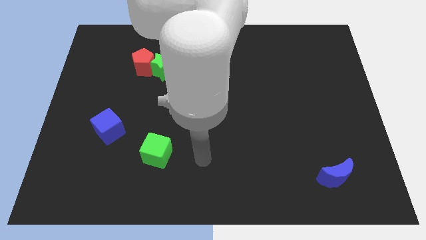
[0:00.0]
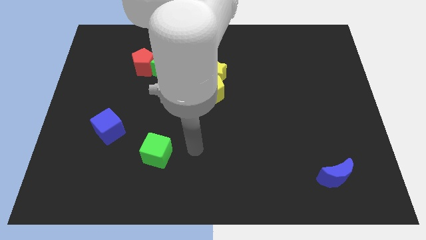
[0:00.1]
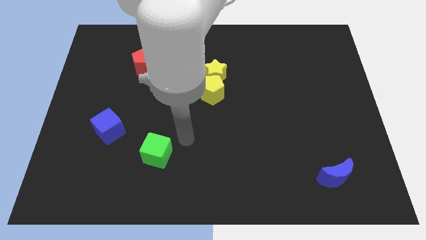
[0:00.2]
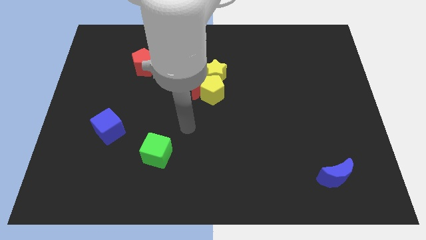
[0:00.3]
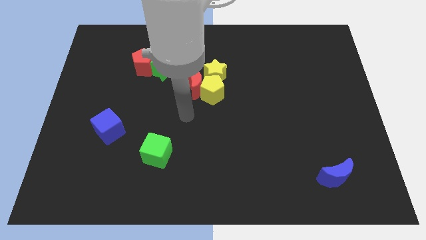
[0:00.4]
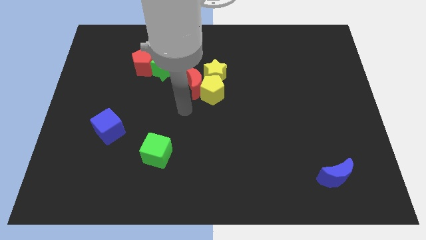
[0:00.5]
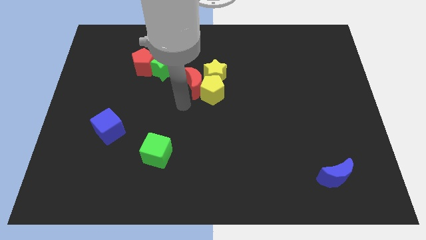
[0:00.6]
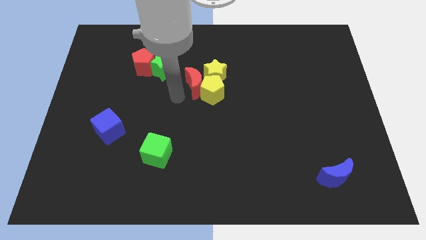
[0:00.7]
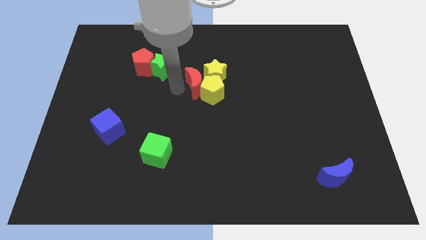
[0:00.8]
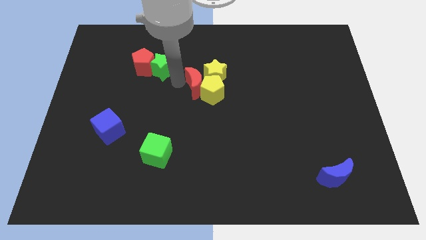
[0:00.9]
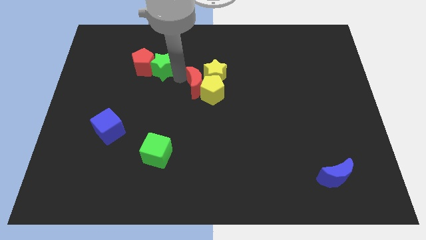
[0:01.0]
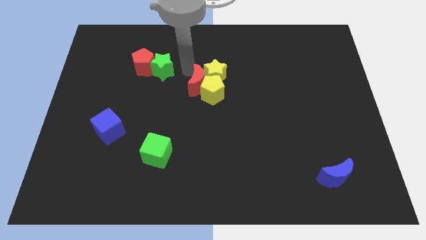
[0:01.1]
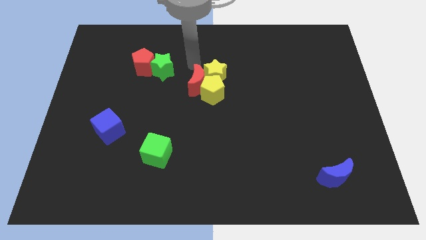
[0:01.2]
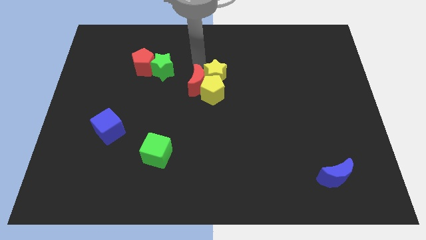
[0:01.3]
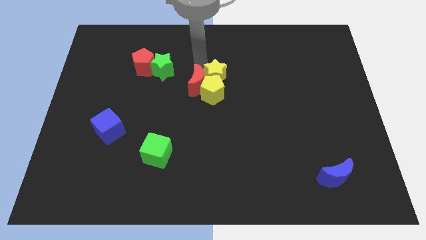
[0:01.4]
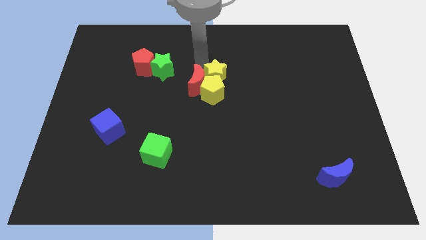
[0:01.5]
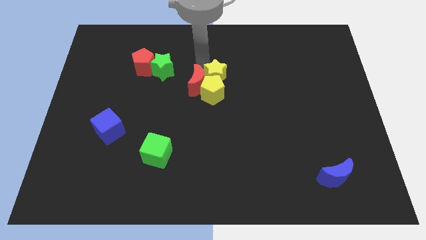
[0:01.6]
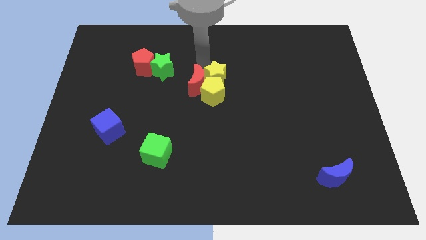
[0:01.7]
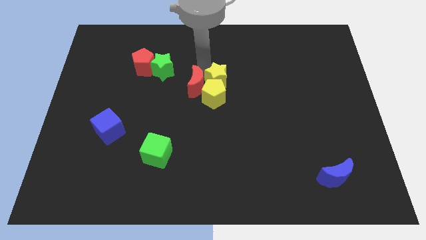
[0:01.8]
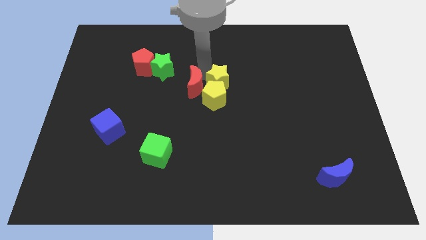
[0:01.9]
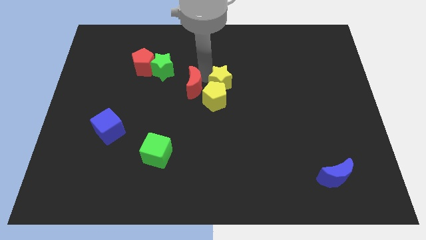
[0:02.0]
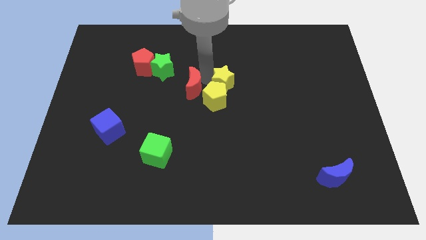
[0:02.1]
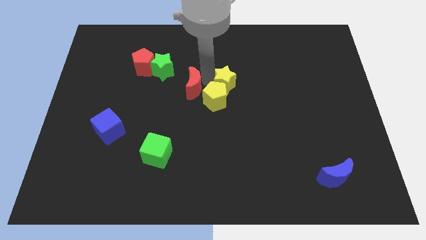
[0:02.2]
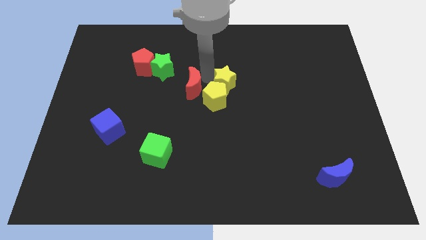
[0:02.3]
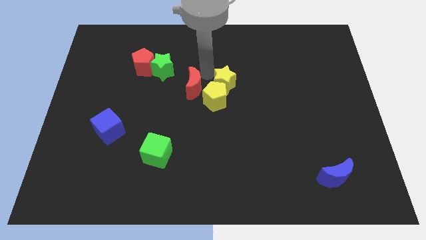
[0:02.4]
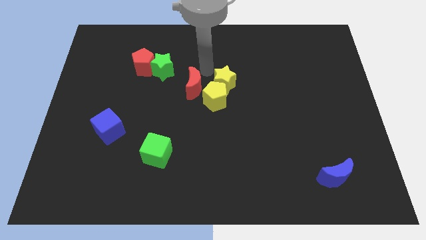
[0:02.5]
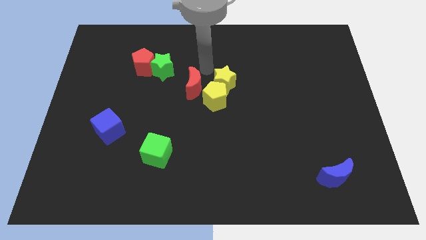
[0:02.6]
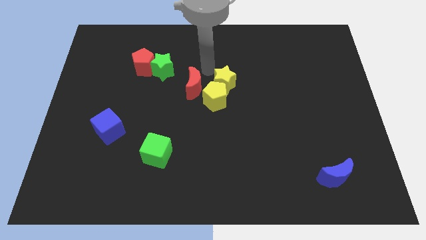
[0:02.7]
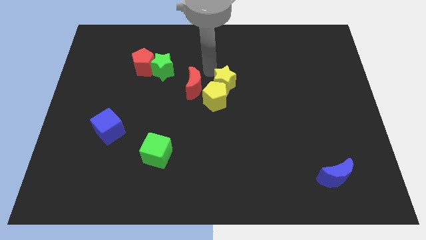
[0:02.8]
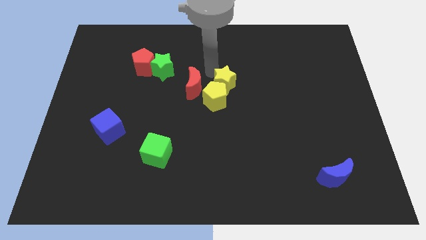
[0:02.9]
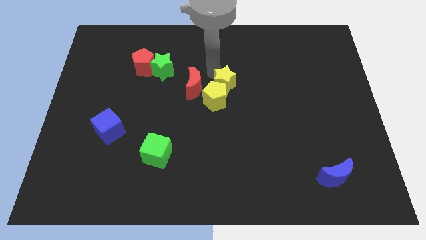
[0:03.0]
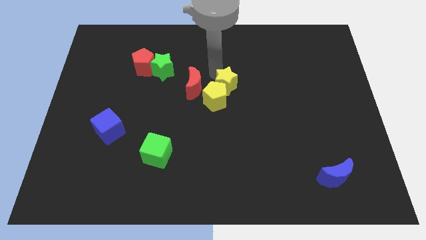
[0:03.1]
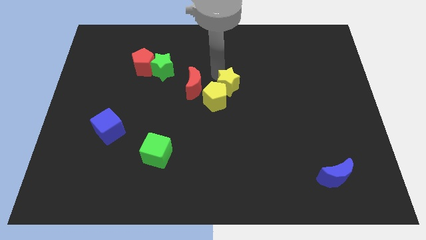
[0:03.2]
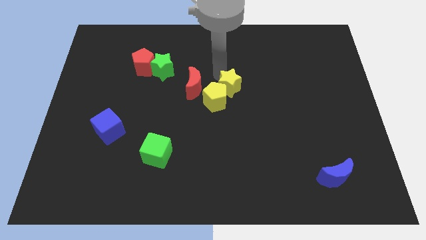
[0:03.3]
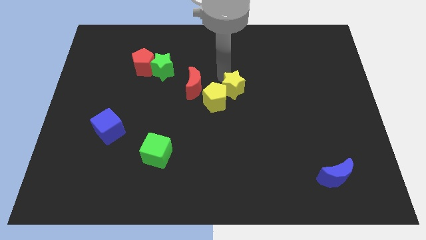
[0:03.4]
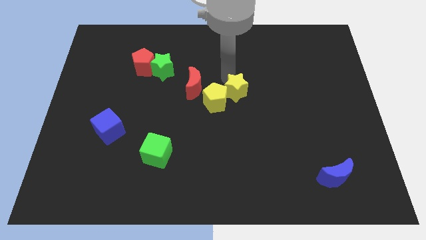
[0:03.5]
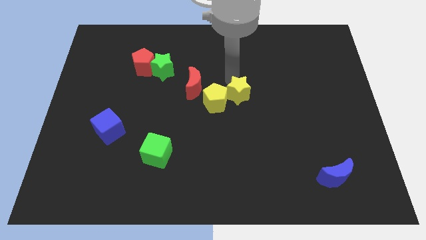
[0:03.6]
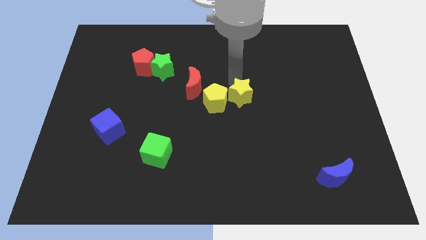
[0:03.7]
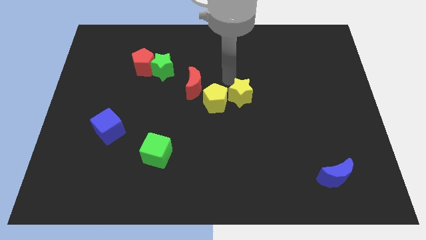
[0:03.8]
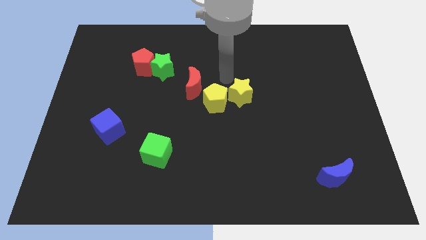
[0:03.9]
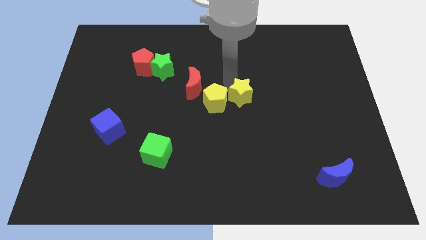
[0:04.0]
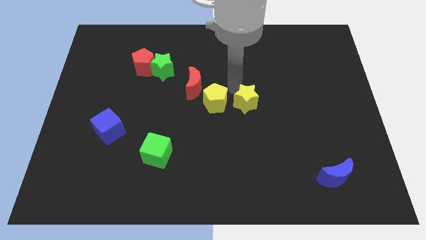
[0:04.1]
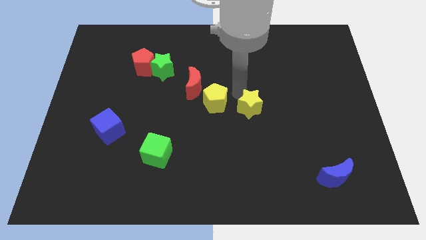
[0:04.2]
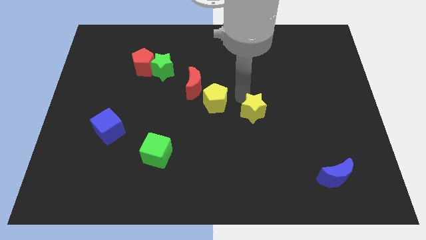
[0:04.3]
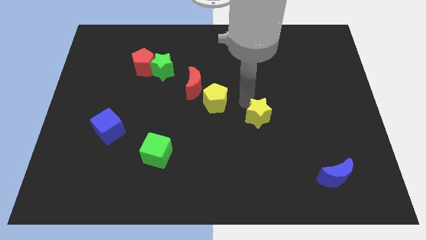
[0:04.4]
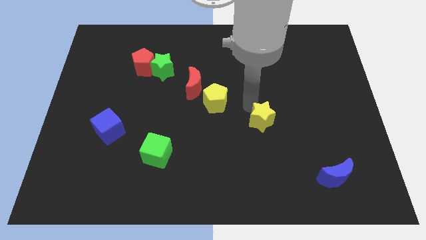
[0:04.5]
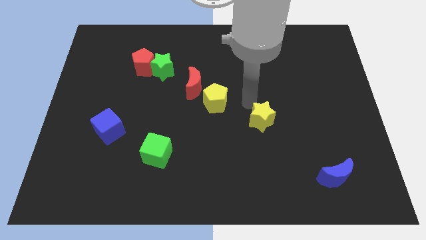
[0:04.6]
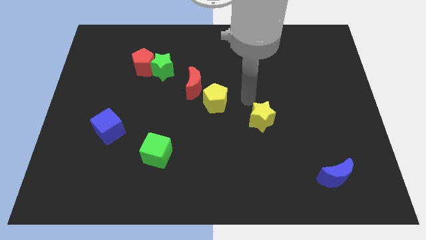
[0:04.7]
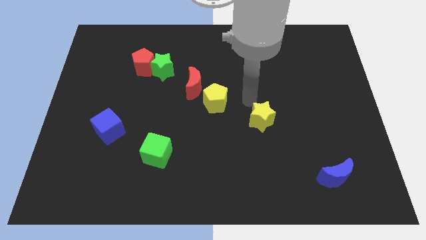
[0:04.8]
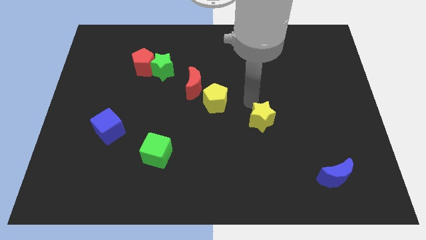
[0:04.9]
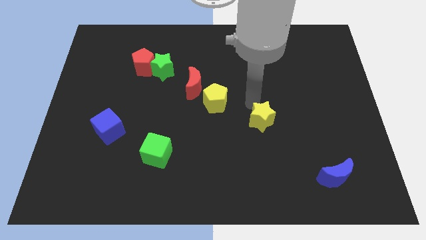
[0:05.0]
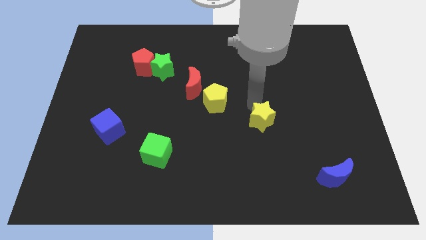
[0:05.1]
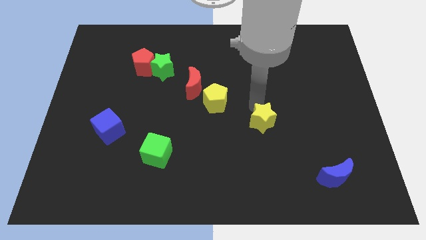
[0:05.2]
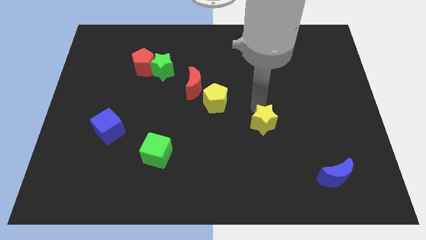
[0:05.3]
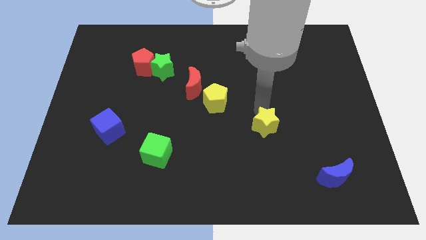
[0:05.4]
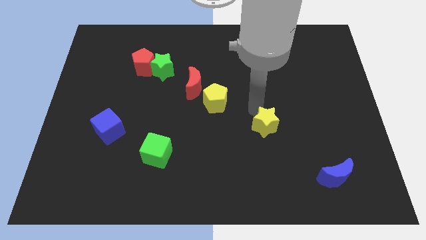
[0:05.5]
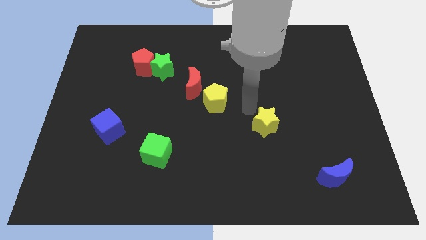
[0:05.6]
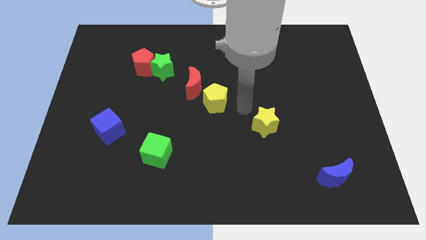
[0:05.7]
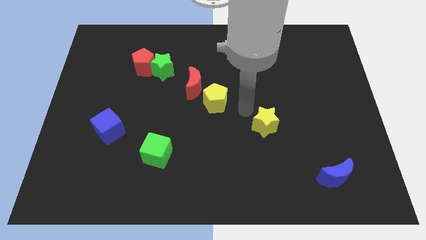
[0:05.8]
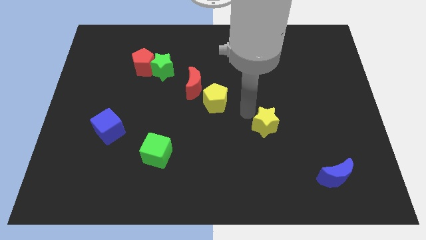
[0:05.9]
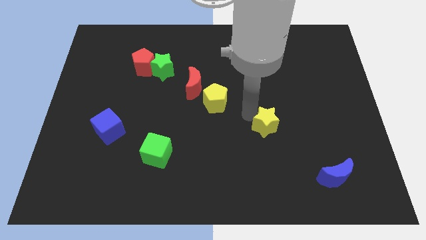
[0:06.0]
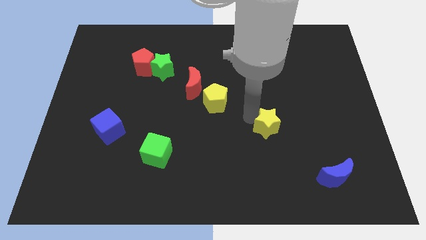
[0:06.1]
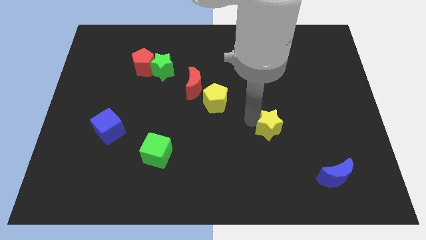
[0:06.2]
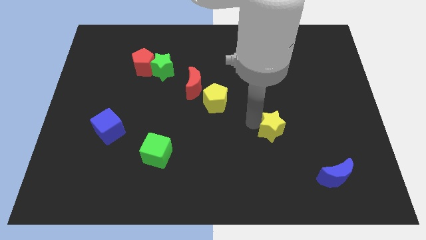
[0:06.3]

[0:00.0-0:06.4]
slide the yellow star diagonally downwards and right

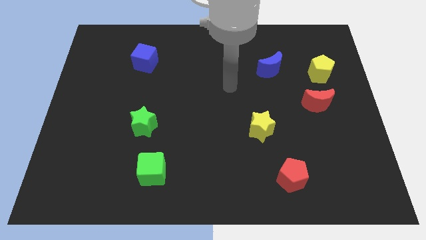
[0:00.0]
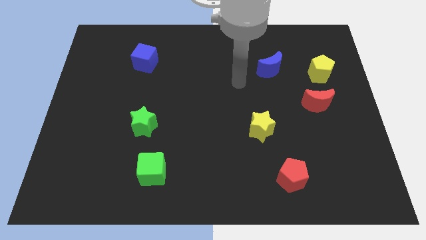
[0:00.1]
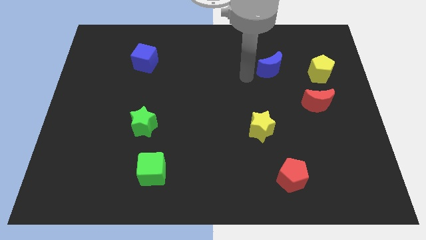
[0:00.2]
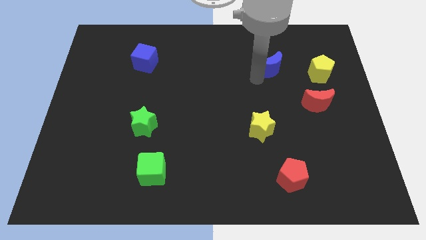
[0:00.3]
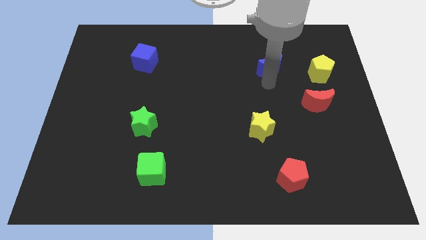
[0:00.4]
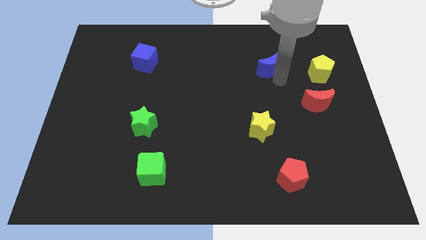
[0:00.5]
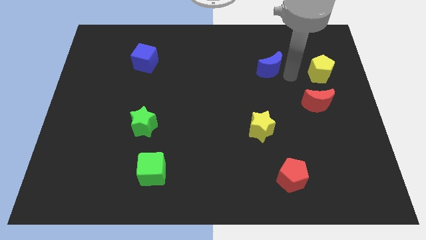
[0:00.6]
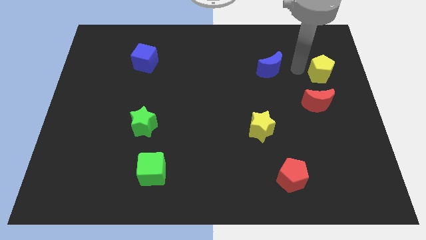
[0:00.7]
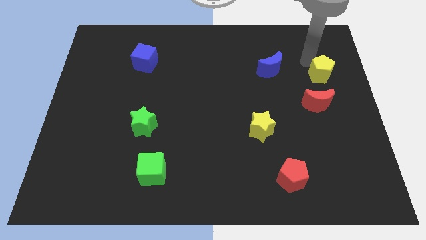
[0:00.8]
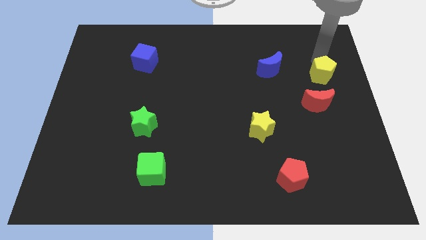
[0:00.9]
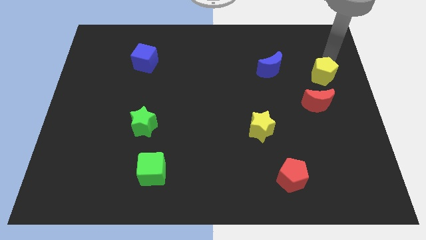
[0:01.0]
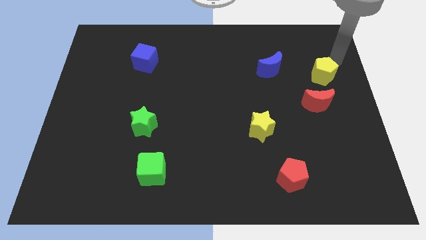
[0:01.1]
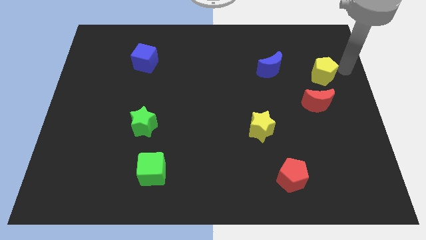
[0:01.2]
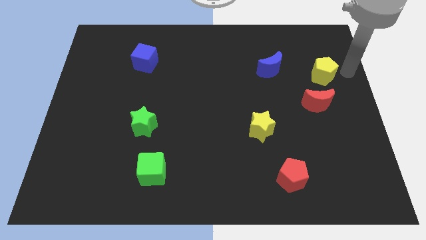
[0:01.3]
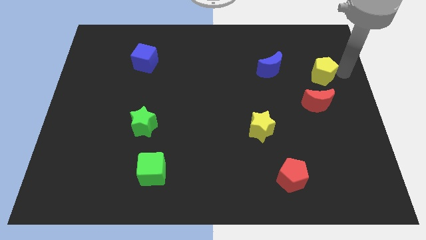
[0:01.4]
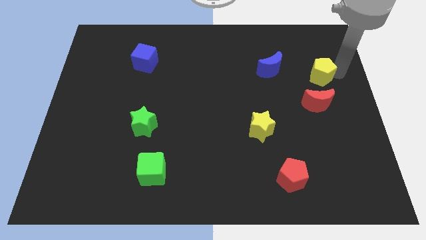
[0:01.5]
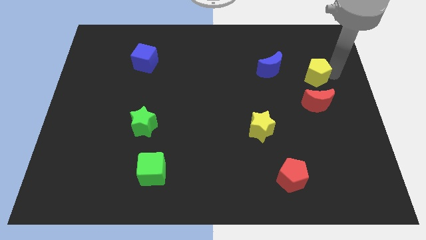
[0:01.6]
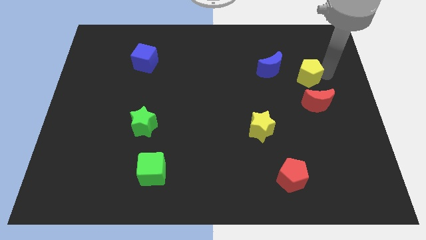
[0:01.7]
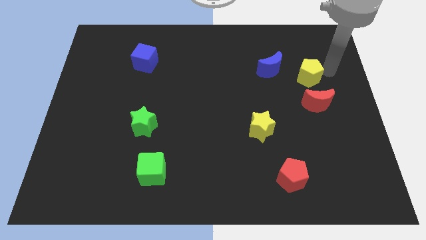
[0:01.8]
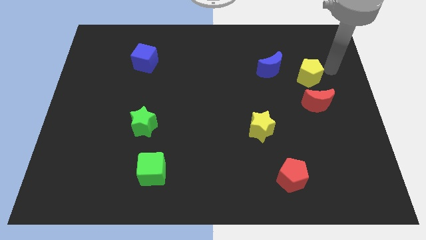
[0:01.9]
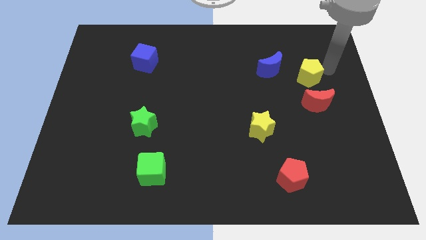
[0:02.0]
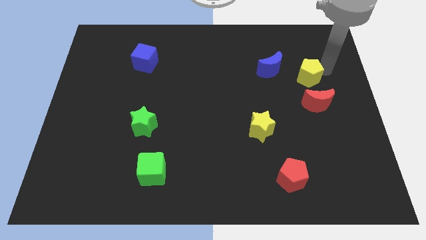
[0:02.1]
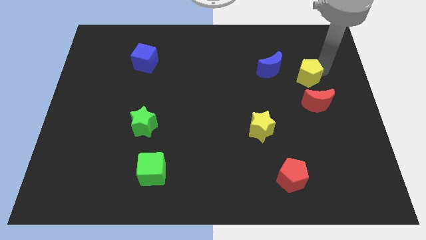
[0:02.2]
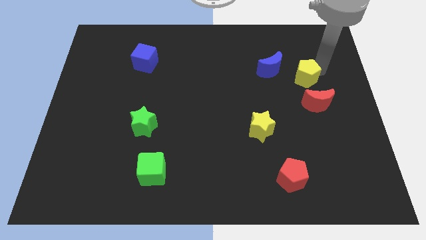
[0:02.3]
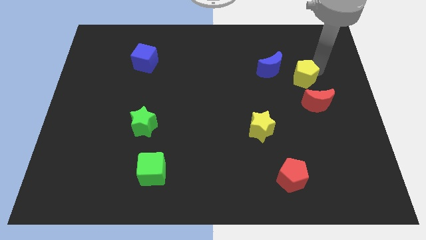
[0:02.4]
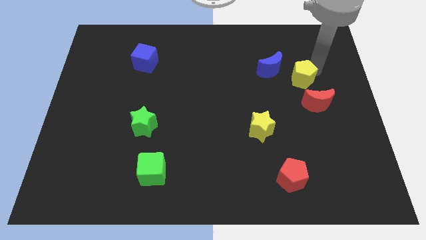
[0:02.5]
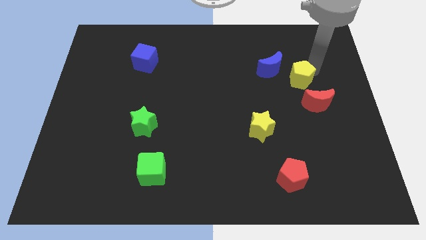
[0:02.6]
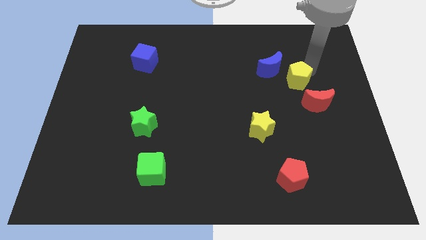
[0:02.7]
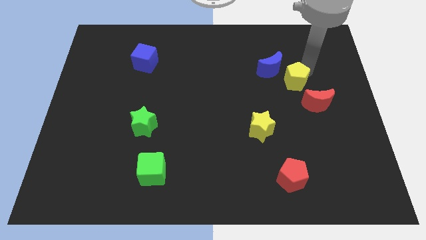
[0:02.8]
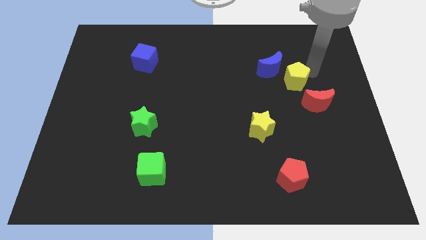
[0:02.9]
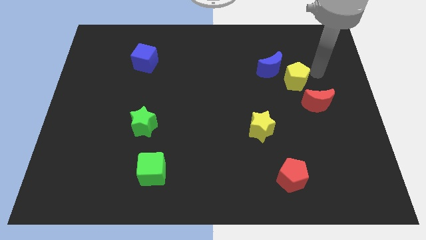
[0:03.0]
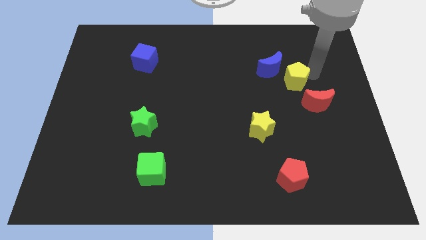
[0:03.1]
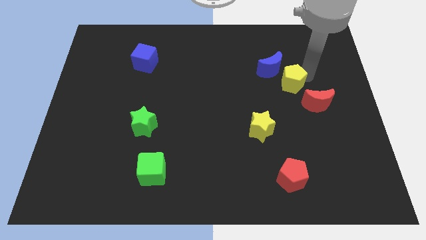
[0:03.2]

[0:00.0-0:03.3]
slide the yellow pentagon a little bit left
